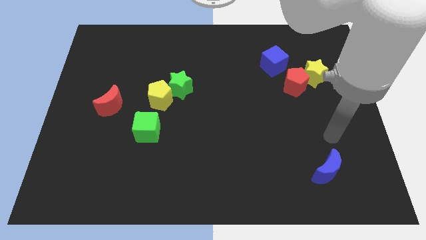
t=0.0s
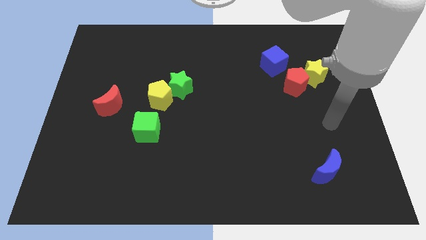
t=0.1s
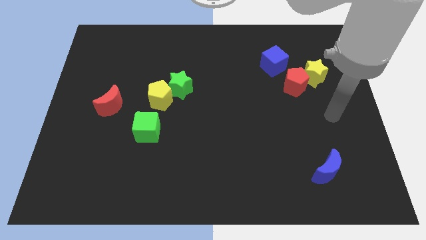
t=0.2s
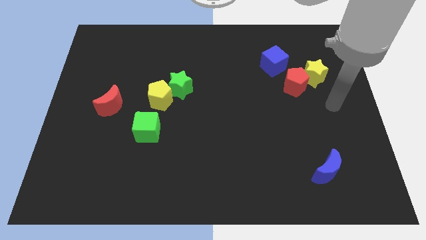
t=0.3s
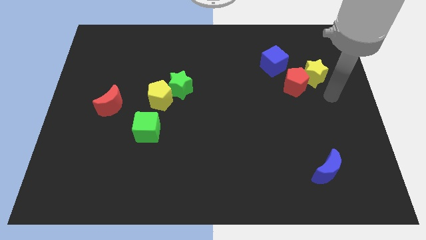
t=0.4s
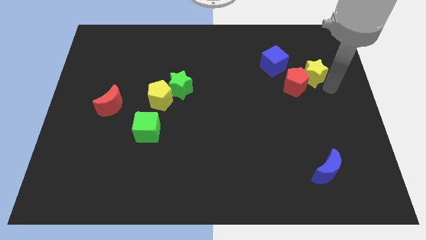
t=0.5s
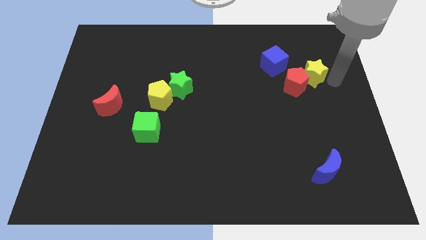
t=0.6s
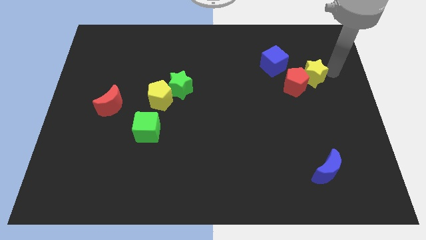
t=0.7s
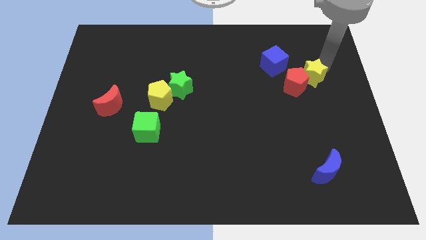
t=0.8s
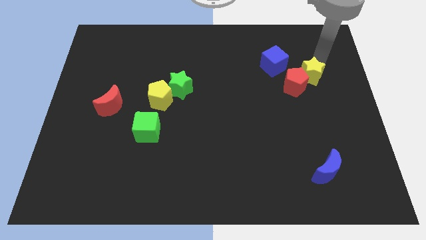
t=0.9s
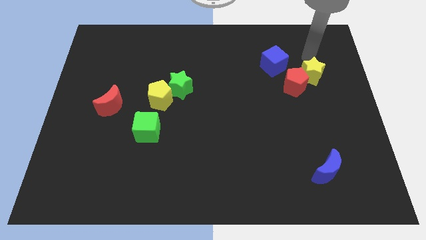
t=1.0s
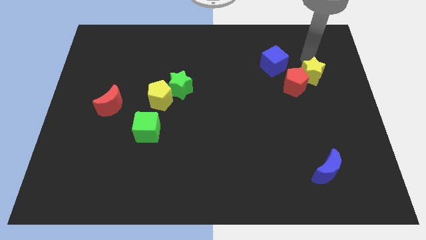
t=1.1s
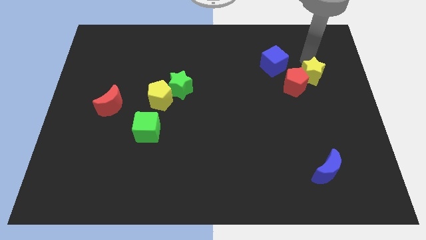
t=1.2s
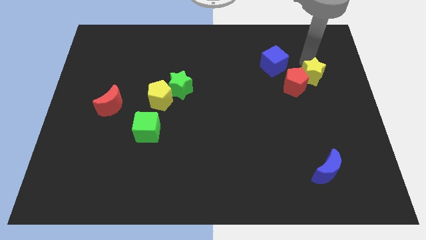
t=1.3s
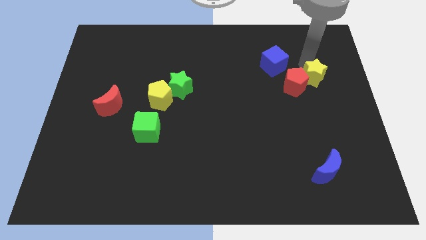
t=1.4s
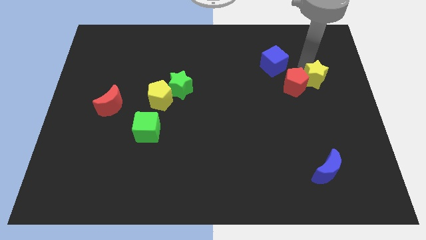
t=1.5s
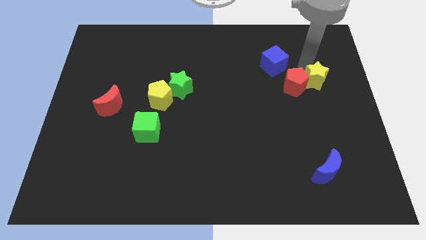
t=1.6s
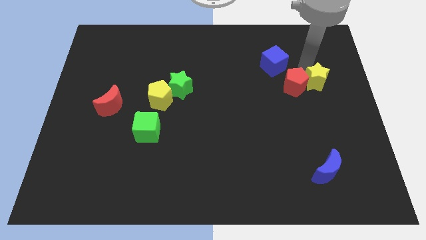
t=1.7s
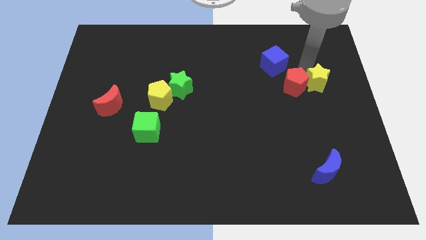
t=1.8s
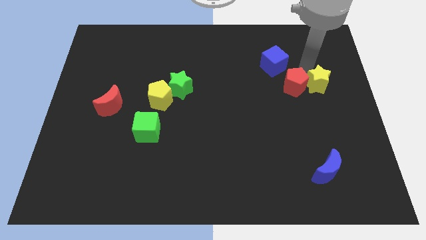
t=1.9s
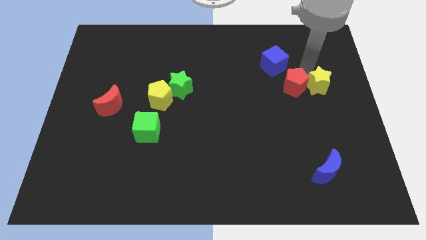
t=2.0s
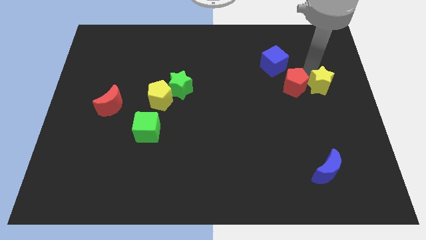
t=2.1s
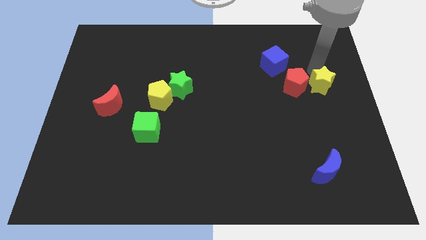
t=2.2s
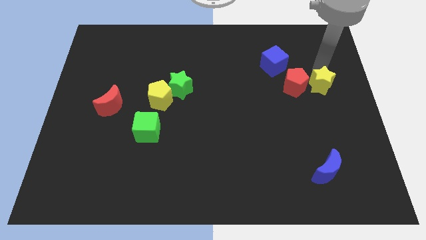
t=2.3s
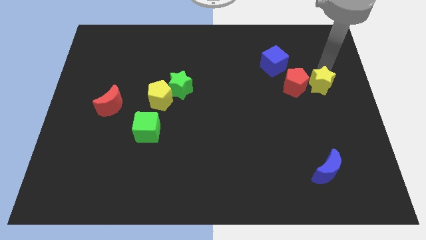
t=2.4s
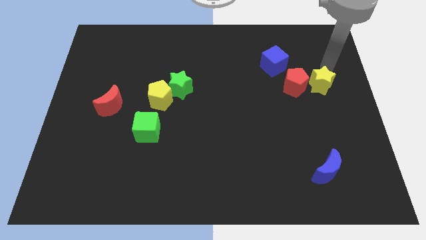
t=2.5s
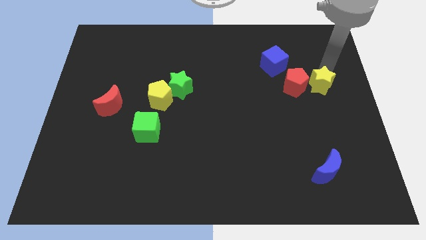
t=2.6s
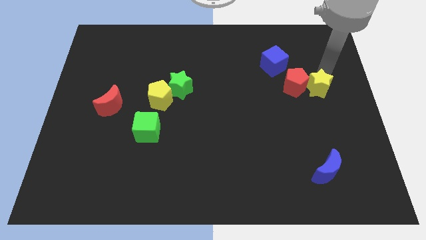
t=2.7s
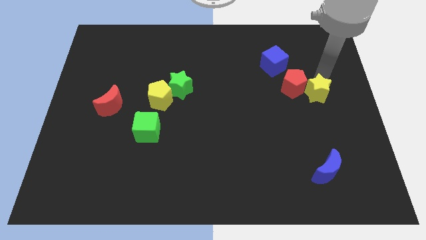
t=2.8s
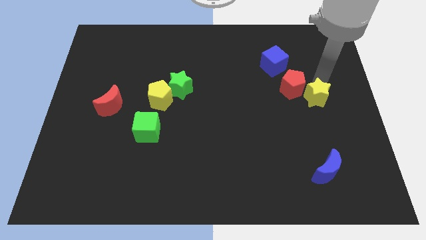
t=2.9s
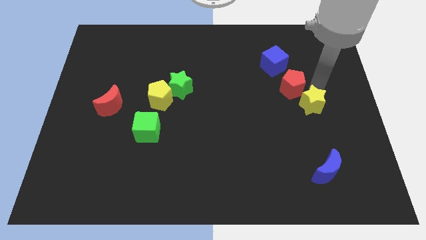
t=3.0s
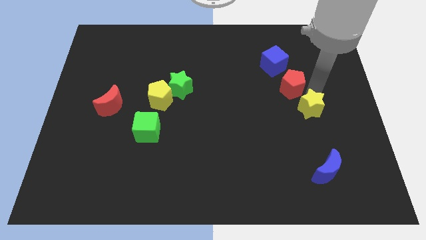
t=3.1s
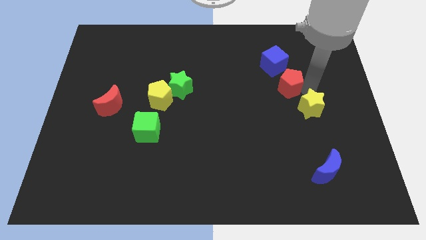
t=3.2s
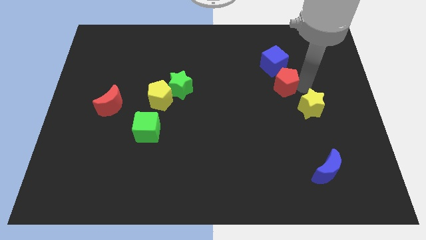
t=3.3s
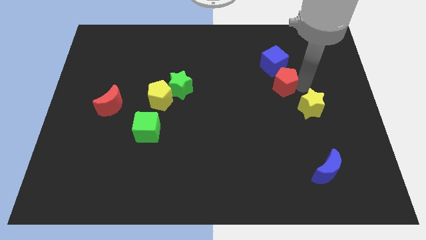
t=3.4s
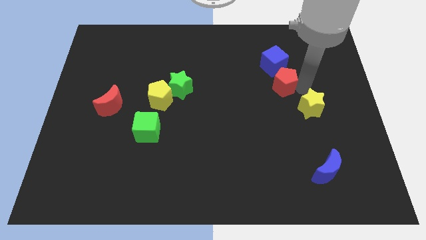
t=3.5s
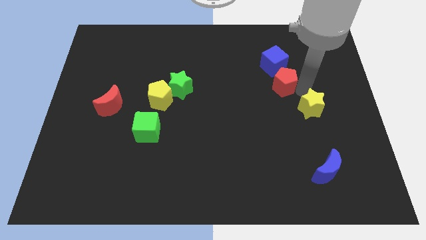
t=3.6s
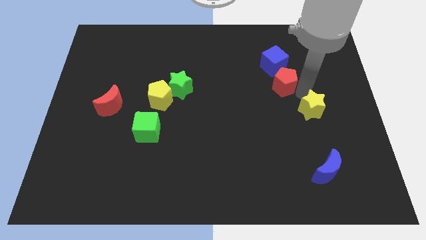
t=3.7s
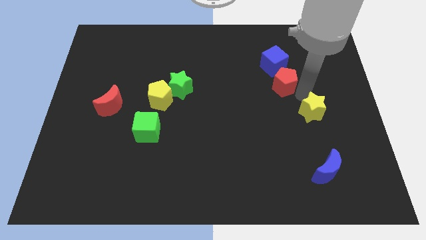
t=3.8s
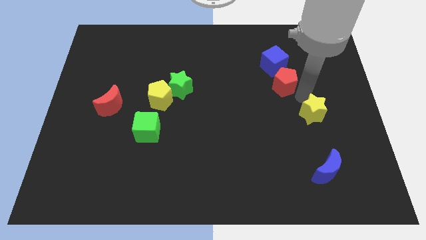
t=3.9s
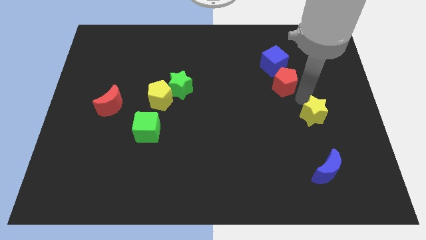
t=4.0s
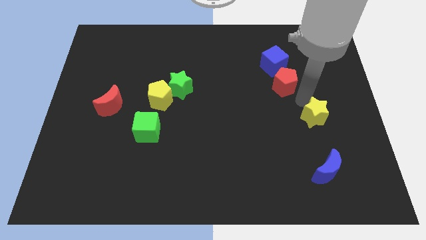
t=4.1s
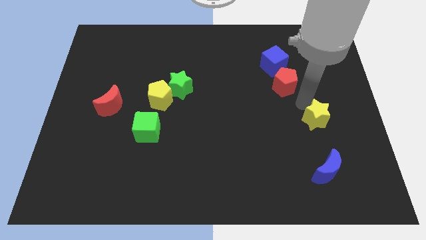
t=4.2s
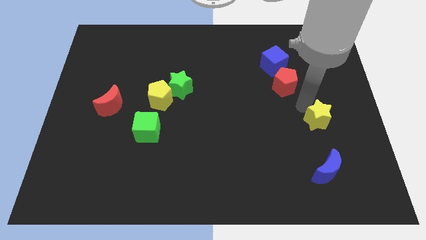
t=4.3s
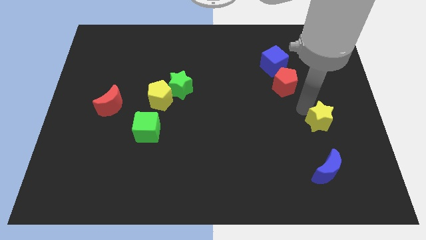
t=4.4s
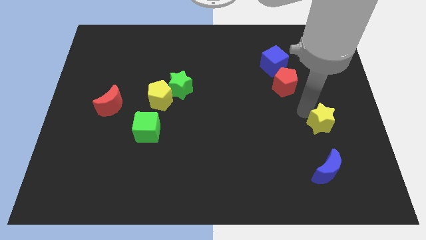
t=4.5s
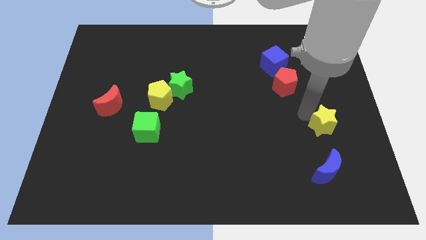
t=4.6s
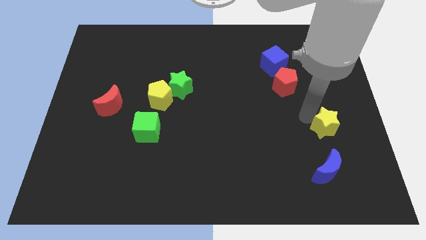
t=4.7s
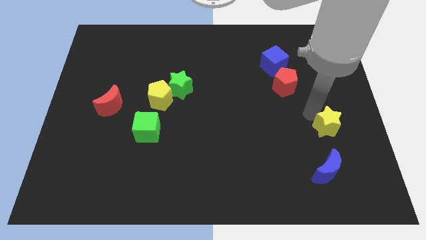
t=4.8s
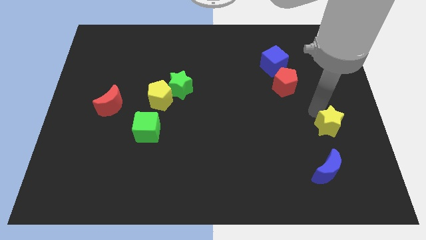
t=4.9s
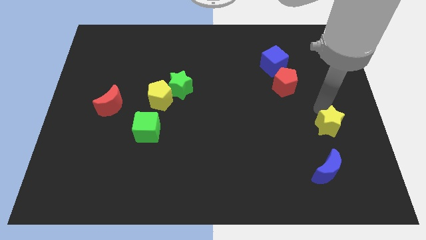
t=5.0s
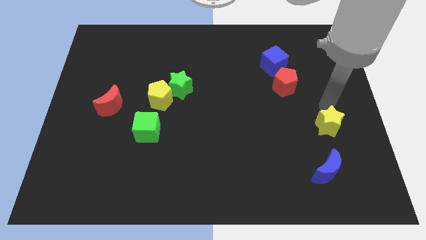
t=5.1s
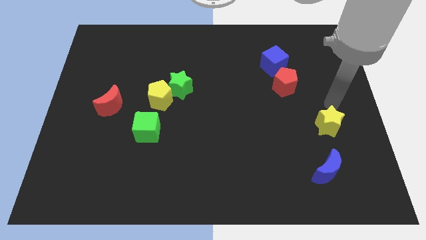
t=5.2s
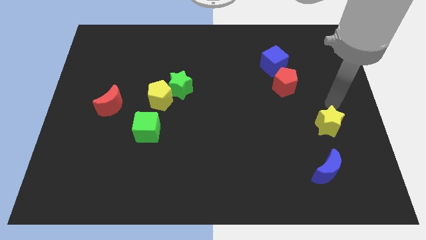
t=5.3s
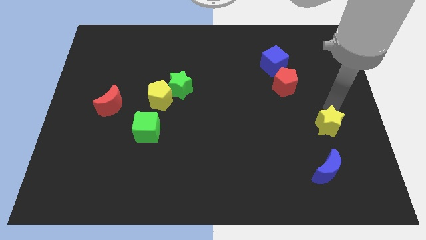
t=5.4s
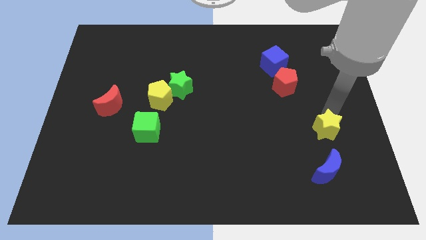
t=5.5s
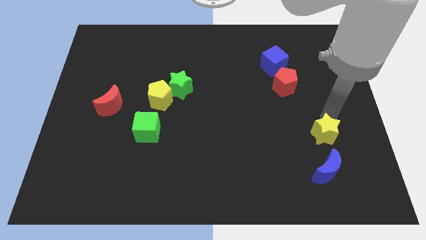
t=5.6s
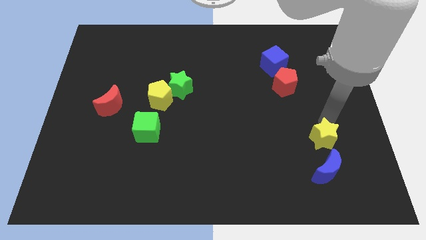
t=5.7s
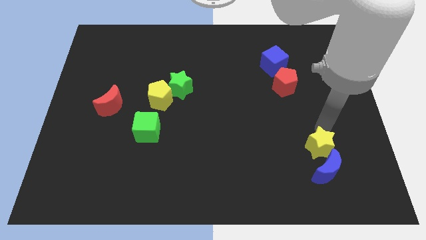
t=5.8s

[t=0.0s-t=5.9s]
slide the yellow star to the blue moon

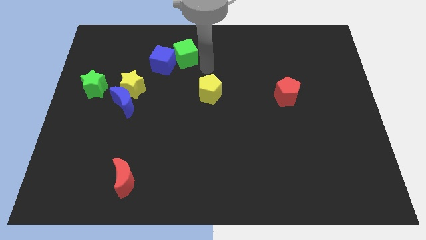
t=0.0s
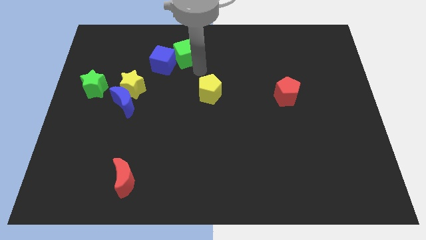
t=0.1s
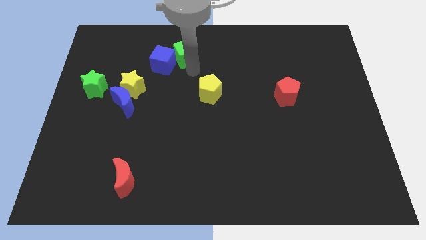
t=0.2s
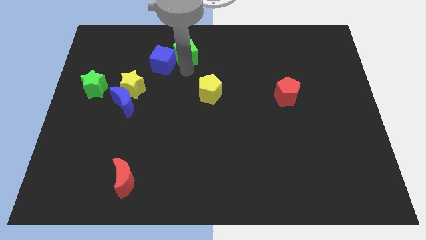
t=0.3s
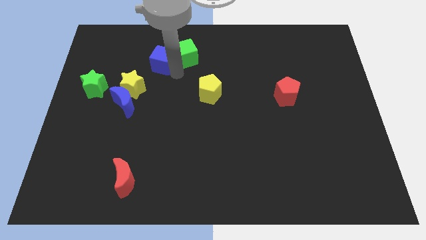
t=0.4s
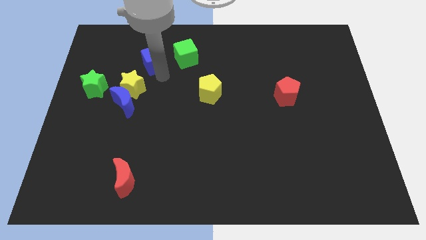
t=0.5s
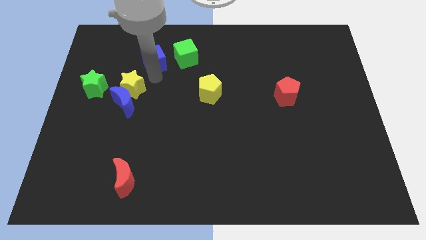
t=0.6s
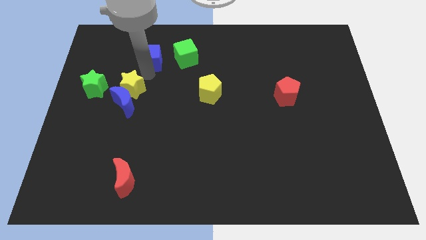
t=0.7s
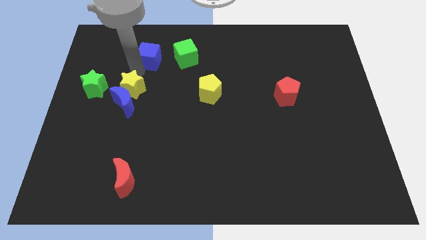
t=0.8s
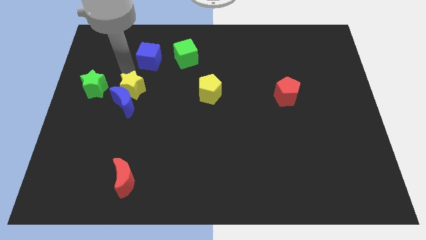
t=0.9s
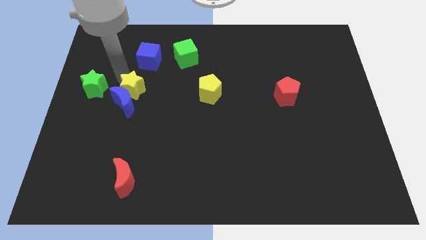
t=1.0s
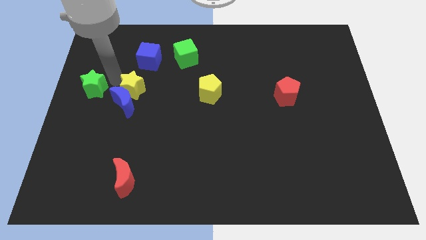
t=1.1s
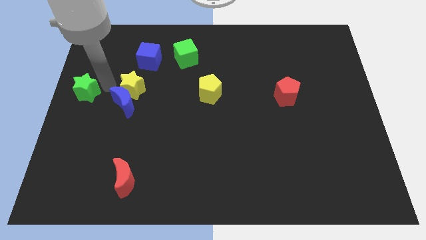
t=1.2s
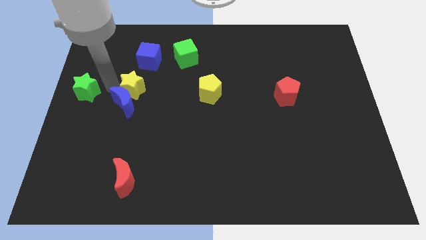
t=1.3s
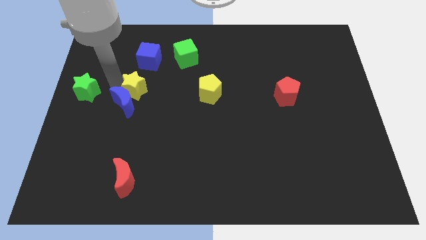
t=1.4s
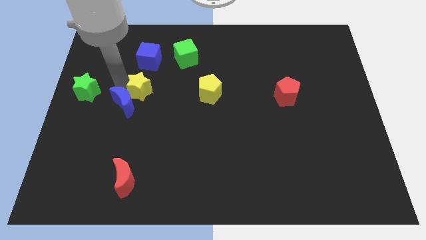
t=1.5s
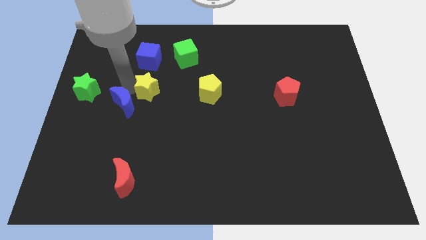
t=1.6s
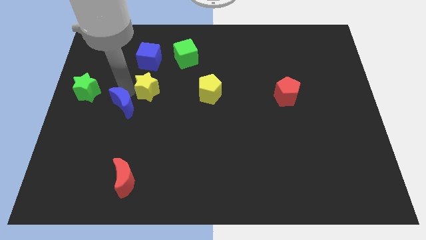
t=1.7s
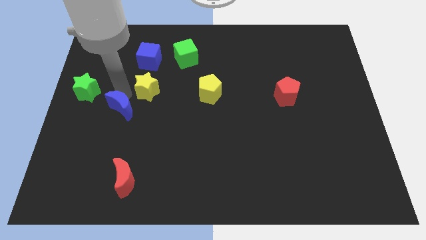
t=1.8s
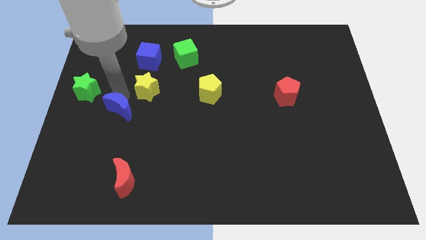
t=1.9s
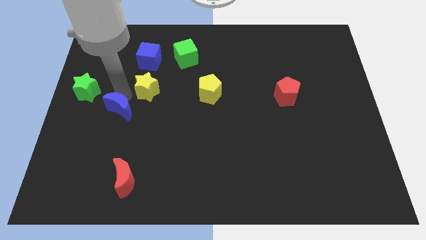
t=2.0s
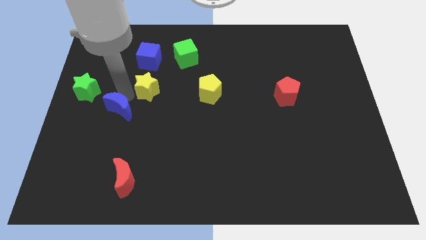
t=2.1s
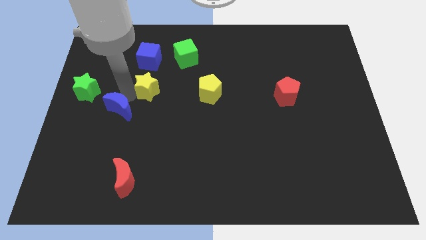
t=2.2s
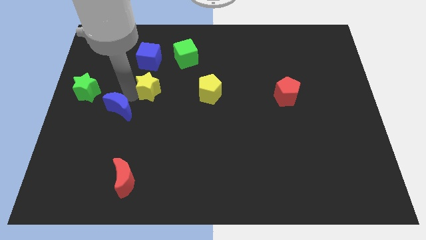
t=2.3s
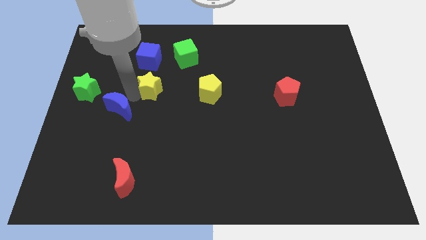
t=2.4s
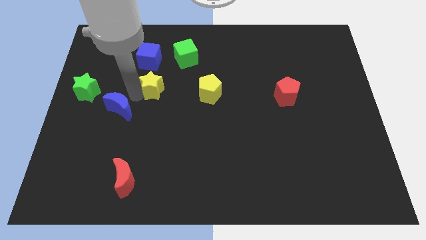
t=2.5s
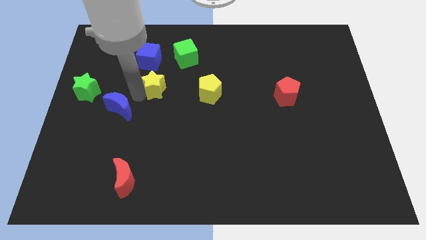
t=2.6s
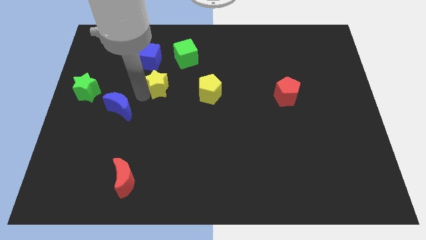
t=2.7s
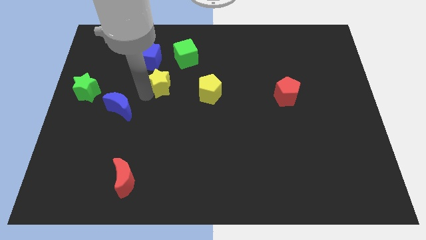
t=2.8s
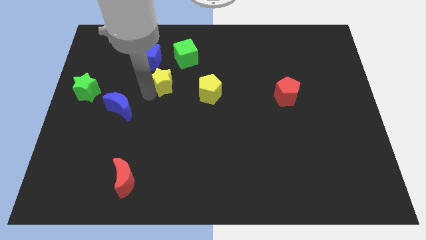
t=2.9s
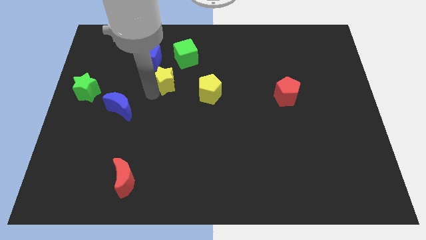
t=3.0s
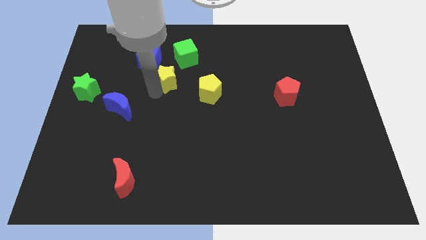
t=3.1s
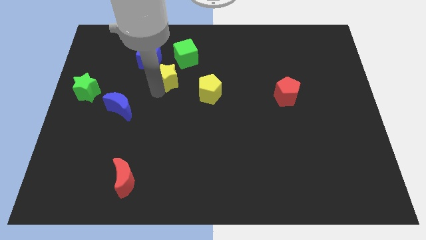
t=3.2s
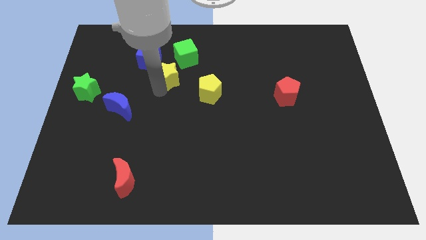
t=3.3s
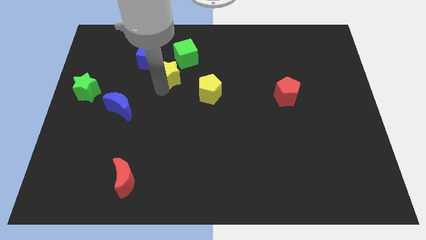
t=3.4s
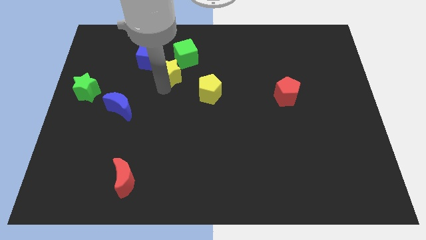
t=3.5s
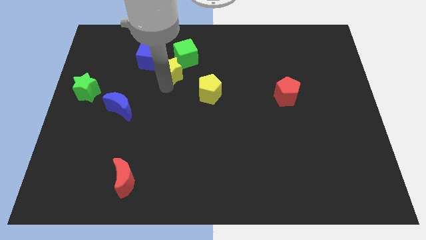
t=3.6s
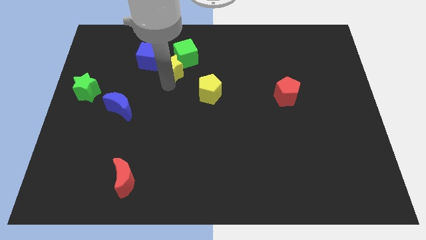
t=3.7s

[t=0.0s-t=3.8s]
move the yellow star towards the green cube
